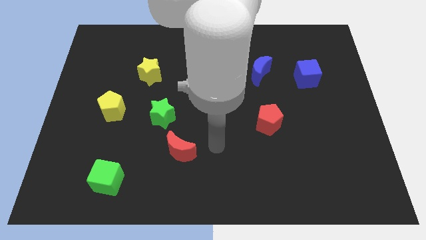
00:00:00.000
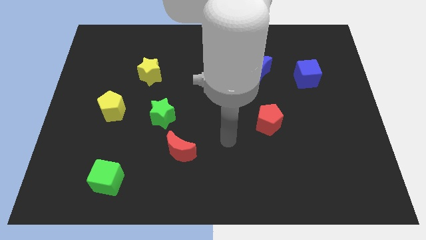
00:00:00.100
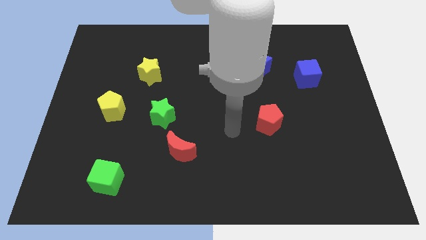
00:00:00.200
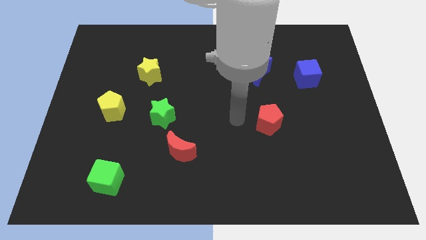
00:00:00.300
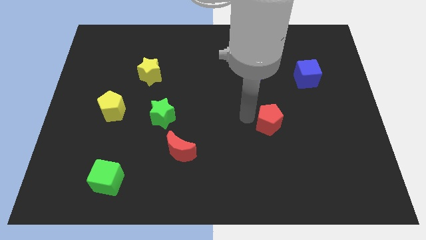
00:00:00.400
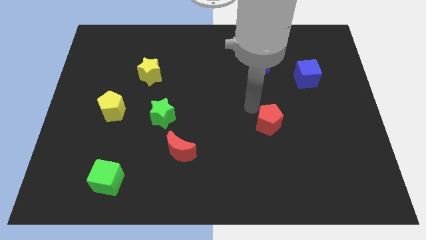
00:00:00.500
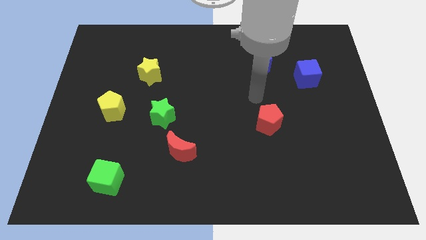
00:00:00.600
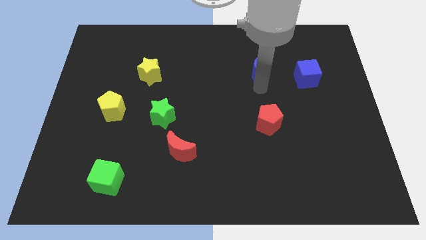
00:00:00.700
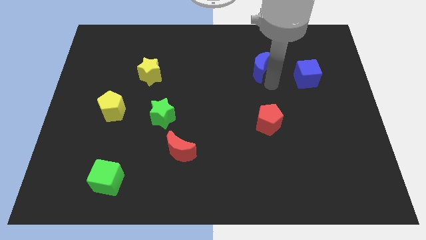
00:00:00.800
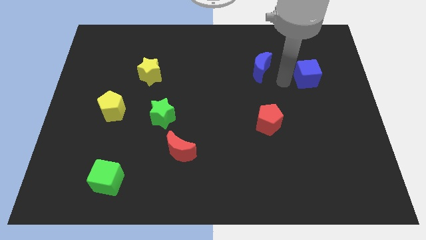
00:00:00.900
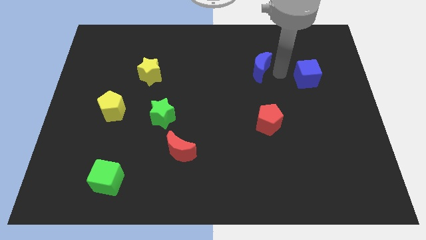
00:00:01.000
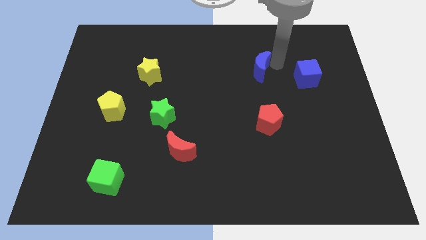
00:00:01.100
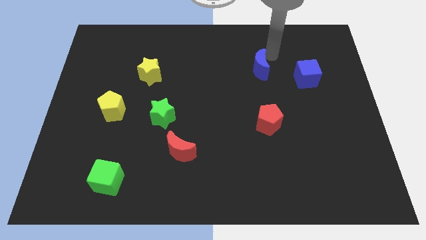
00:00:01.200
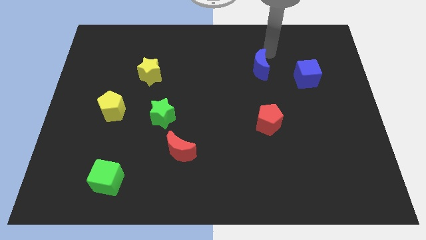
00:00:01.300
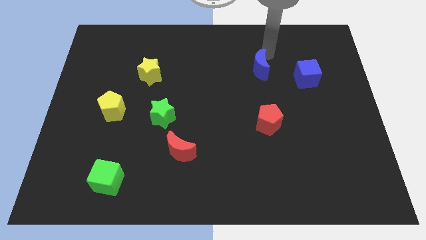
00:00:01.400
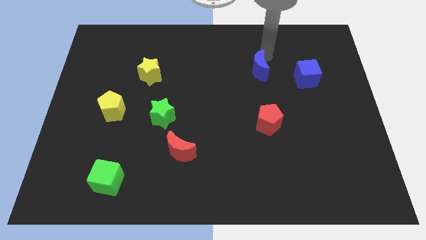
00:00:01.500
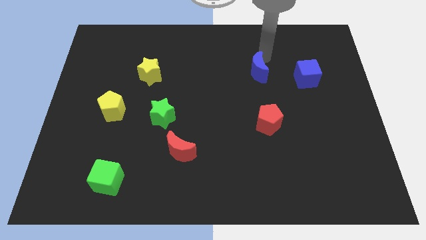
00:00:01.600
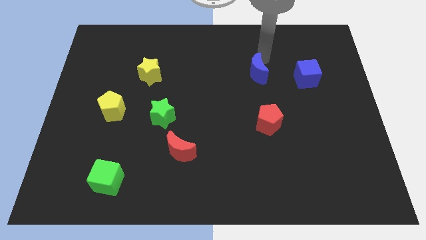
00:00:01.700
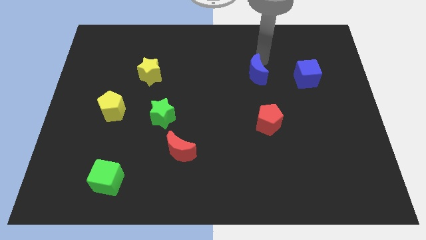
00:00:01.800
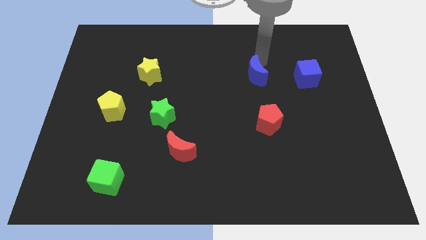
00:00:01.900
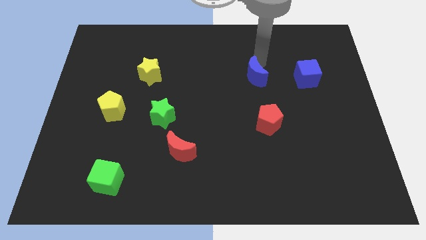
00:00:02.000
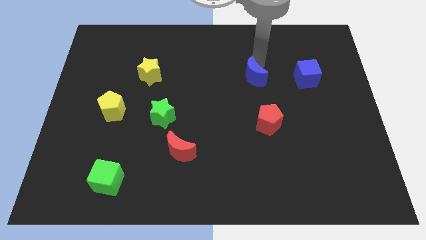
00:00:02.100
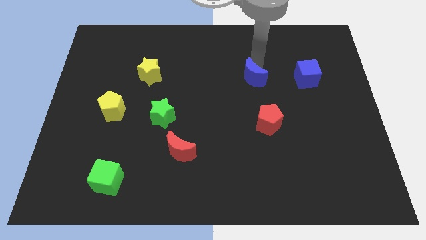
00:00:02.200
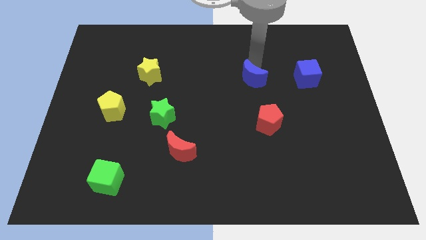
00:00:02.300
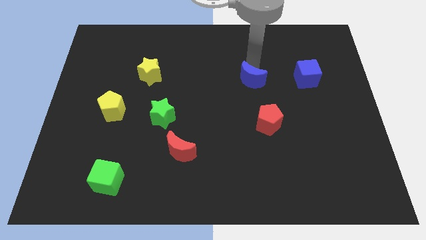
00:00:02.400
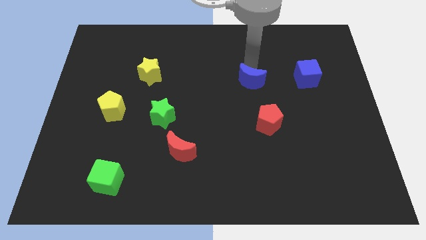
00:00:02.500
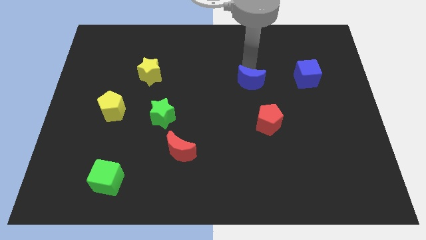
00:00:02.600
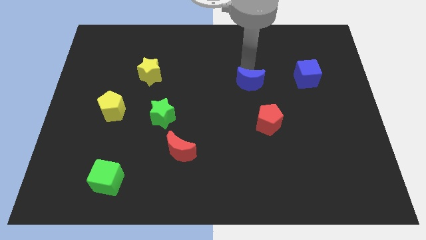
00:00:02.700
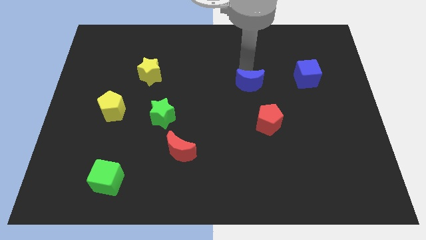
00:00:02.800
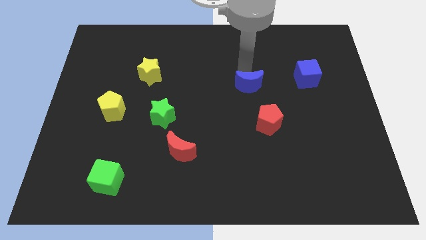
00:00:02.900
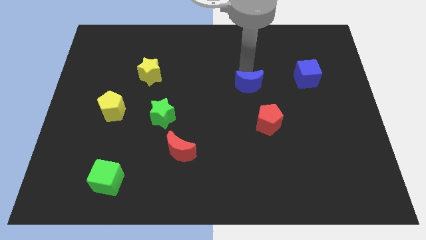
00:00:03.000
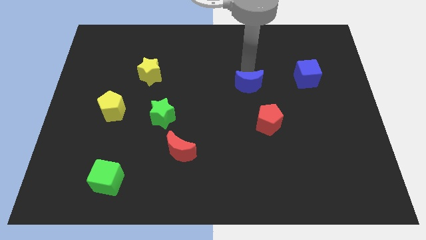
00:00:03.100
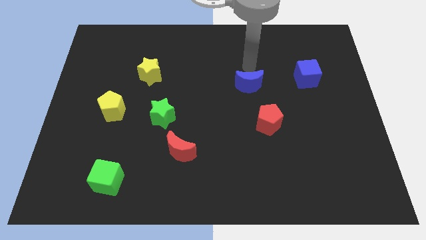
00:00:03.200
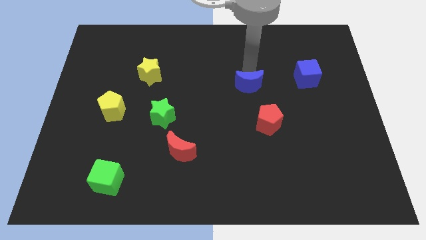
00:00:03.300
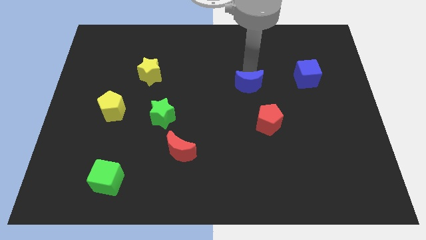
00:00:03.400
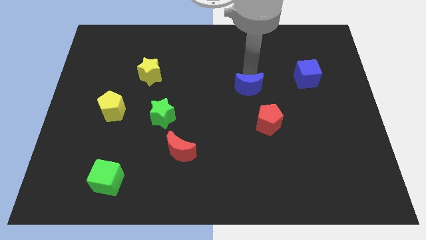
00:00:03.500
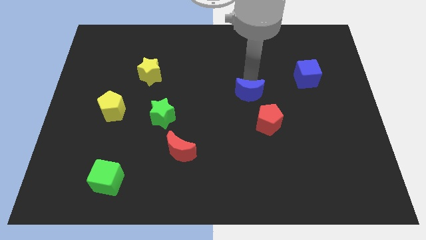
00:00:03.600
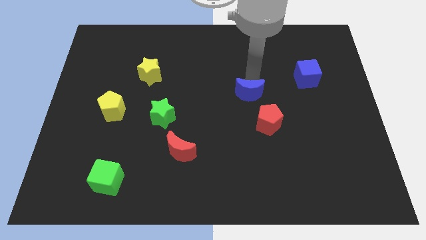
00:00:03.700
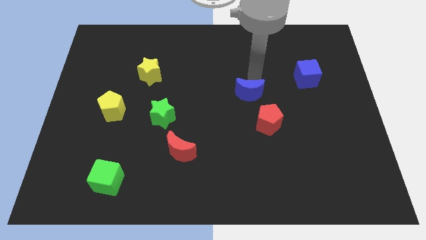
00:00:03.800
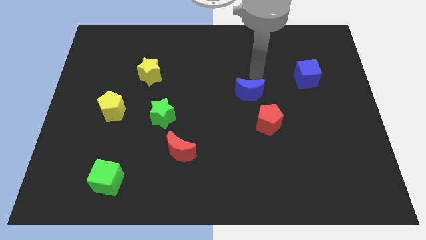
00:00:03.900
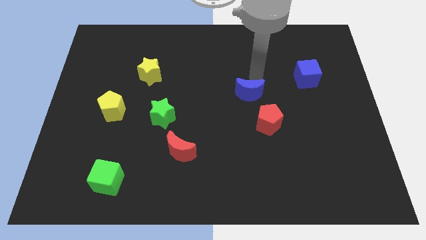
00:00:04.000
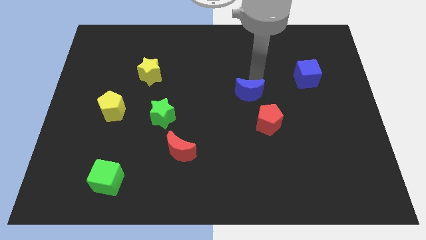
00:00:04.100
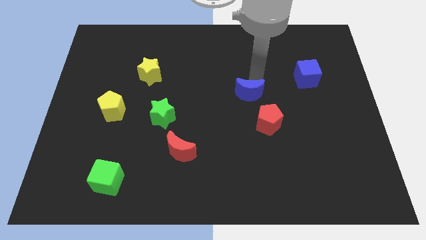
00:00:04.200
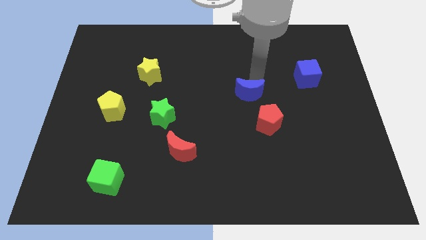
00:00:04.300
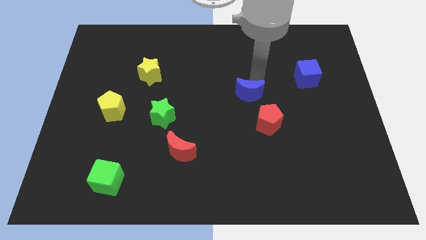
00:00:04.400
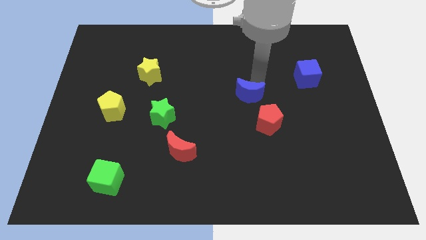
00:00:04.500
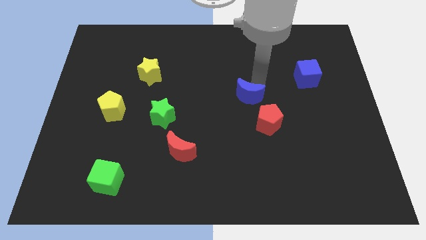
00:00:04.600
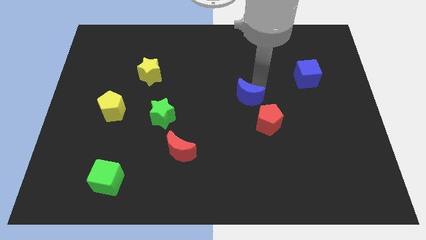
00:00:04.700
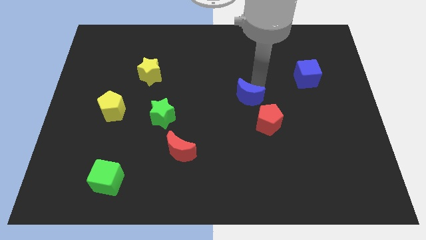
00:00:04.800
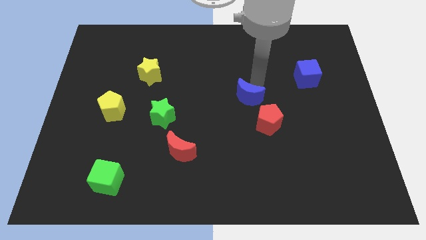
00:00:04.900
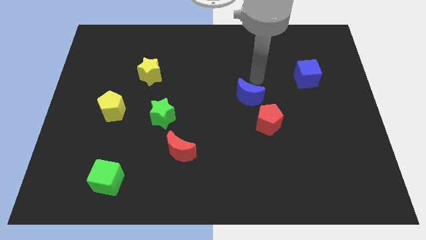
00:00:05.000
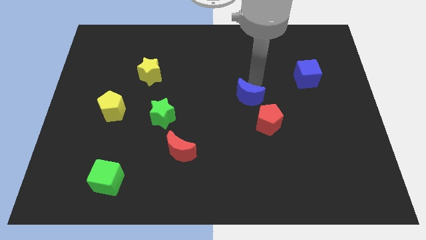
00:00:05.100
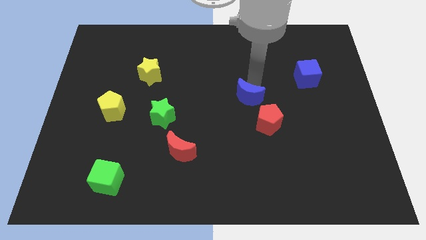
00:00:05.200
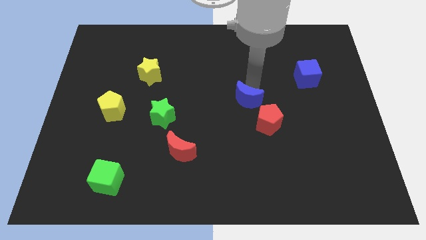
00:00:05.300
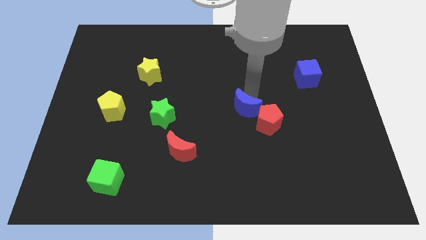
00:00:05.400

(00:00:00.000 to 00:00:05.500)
slide the blue moon left of the red pentagon

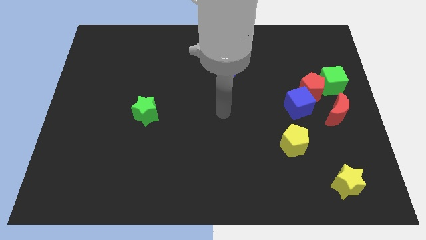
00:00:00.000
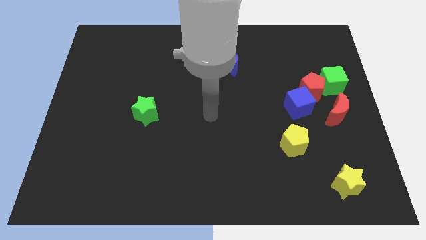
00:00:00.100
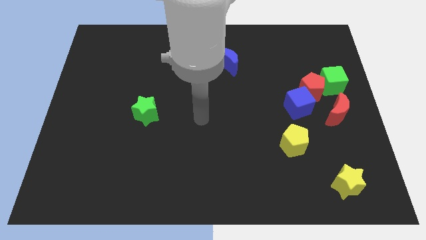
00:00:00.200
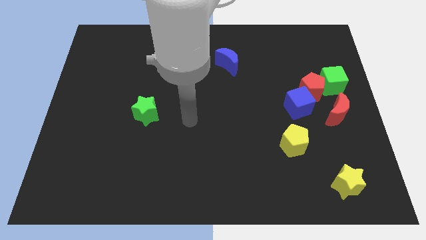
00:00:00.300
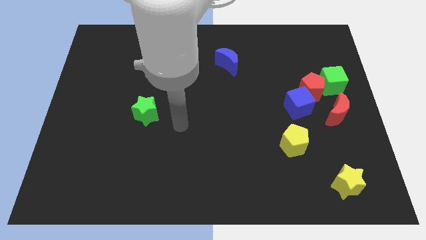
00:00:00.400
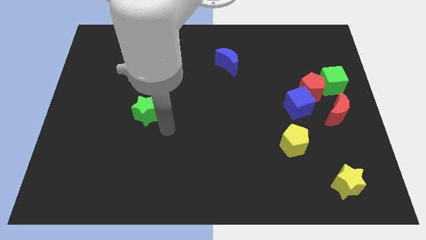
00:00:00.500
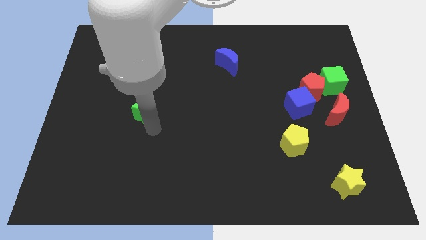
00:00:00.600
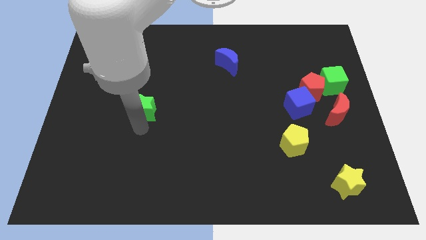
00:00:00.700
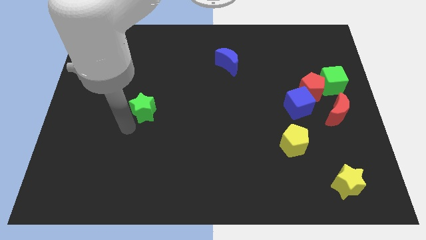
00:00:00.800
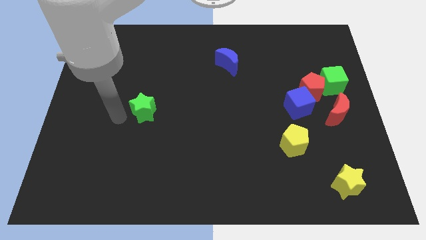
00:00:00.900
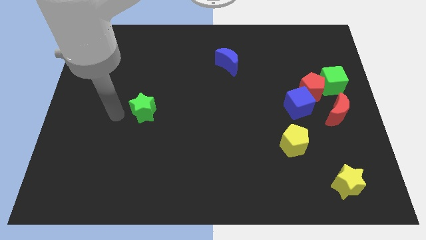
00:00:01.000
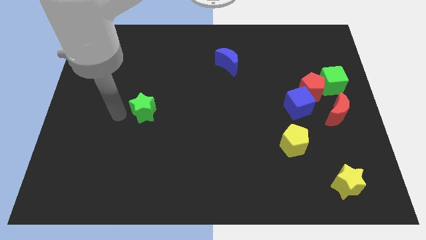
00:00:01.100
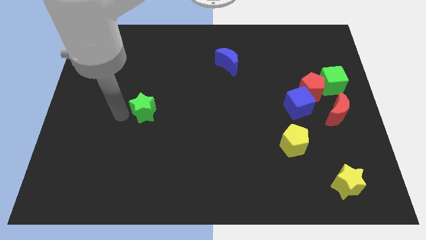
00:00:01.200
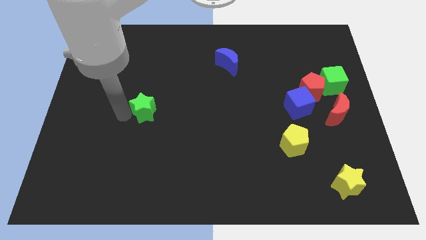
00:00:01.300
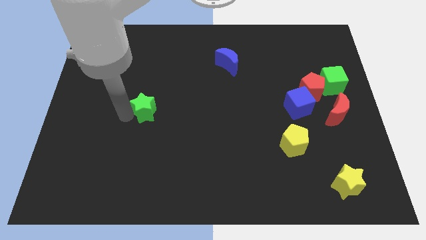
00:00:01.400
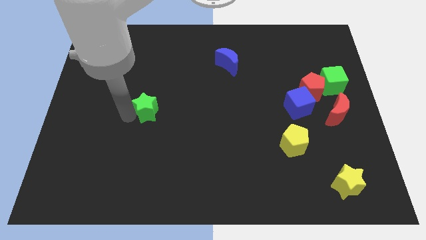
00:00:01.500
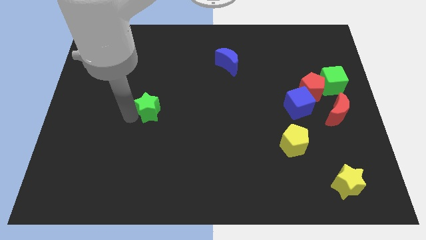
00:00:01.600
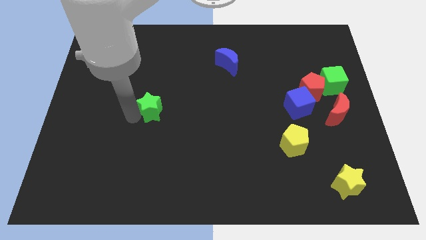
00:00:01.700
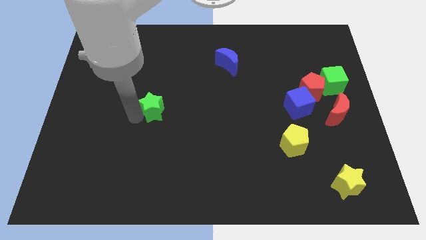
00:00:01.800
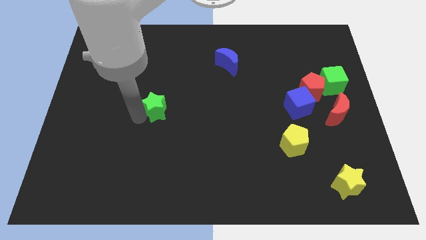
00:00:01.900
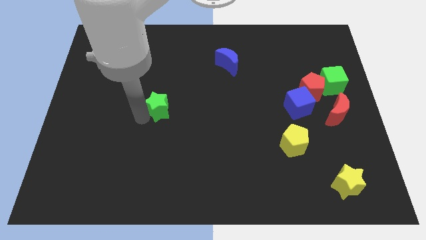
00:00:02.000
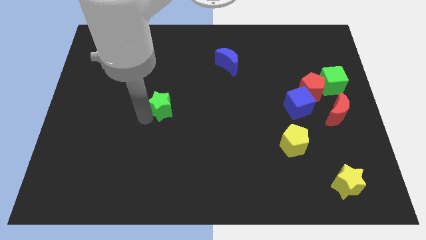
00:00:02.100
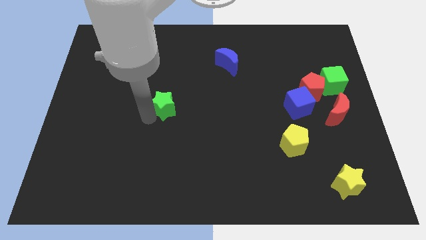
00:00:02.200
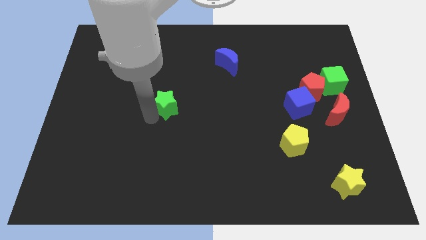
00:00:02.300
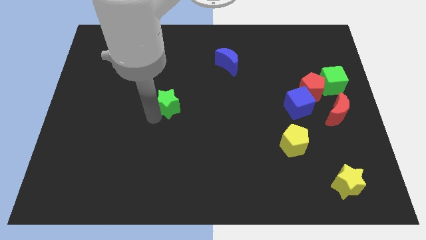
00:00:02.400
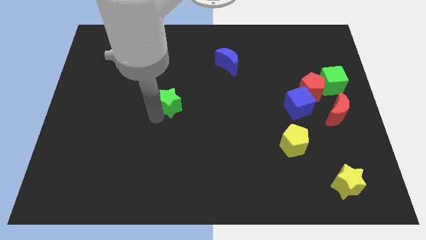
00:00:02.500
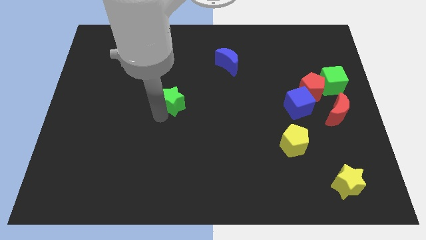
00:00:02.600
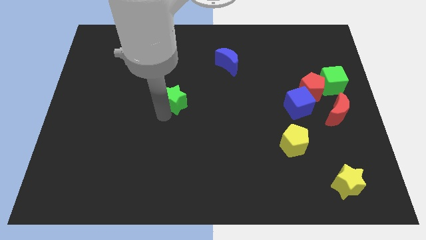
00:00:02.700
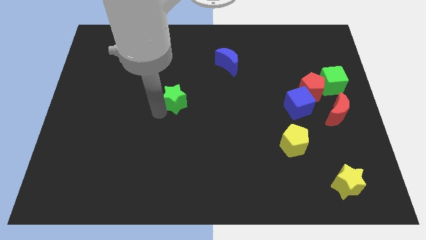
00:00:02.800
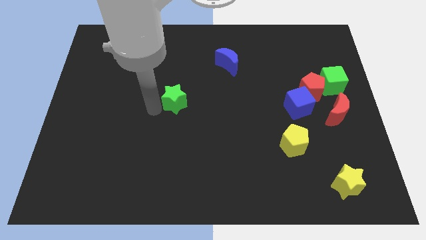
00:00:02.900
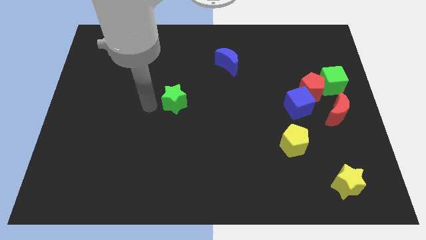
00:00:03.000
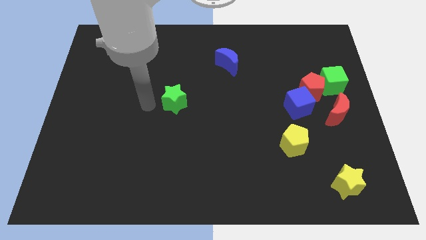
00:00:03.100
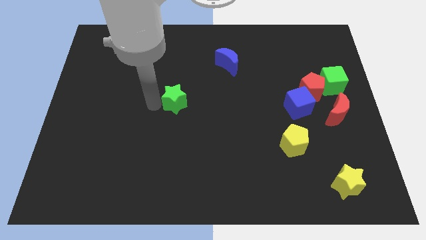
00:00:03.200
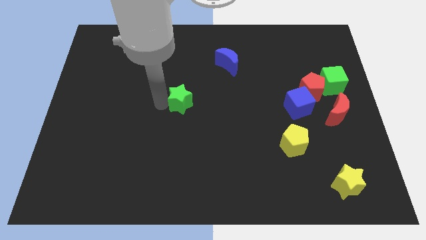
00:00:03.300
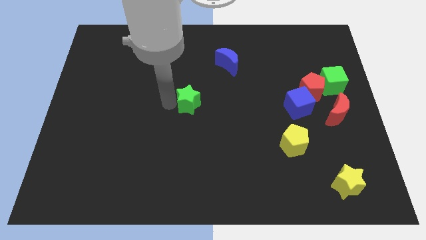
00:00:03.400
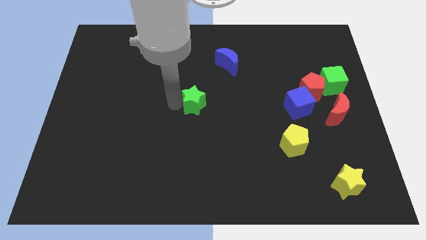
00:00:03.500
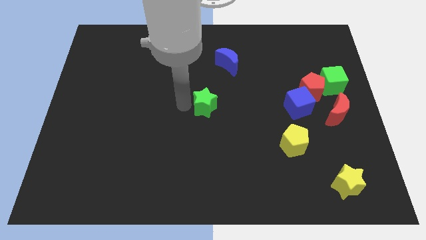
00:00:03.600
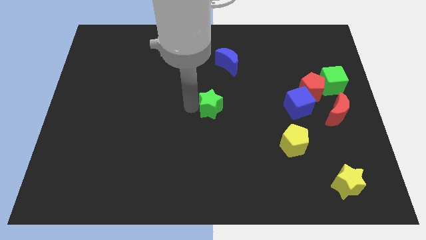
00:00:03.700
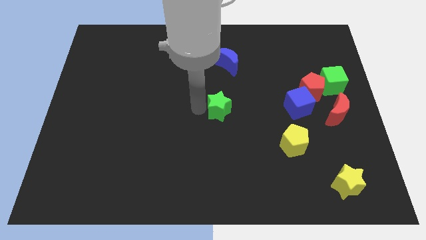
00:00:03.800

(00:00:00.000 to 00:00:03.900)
slide the green star to the bottom side of the blue moon
